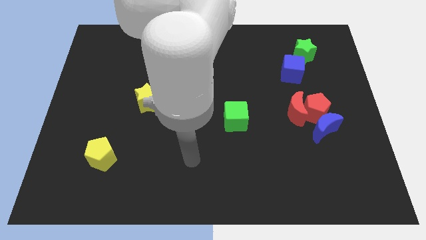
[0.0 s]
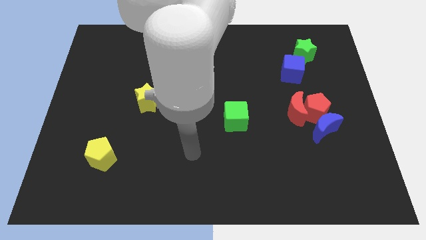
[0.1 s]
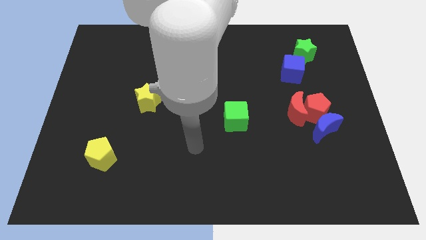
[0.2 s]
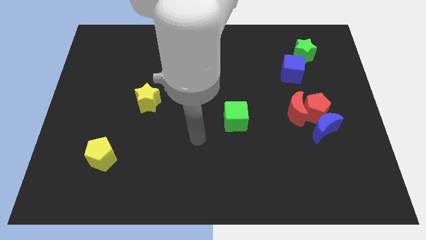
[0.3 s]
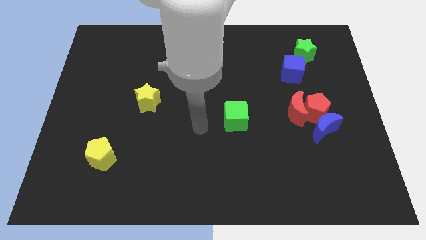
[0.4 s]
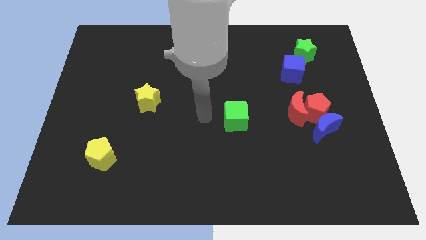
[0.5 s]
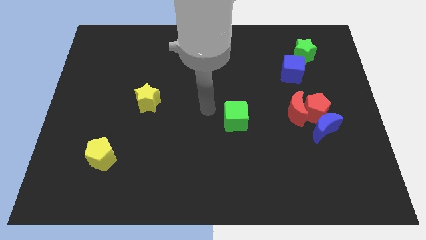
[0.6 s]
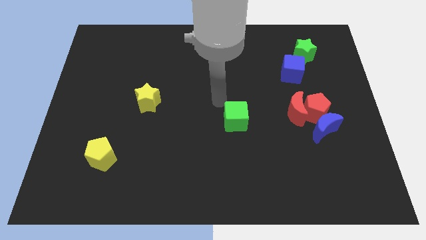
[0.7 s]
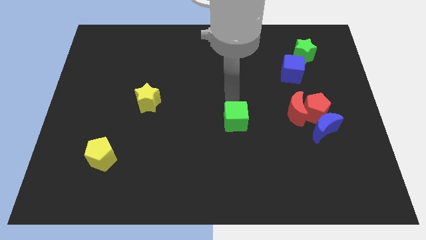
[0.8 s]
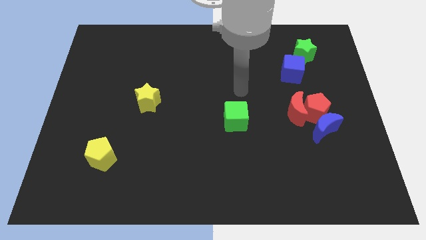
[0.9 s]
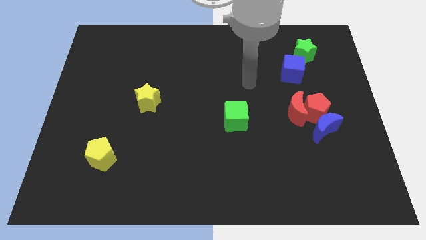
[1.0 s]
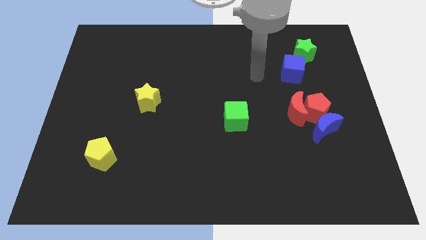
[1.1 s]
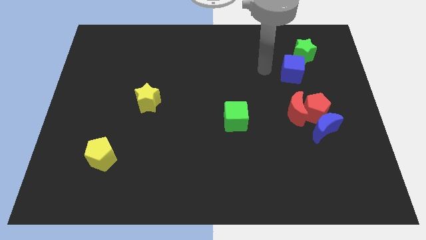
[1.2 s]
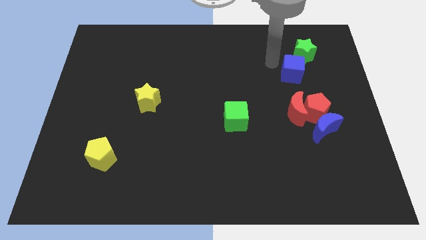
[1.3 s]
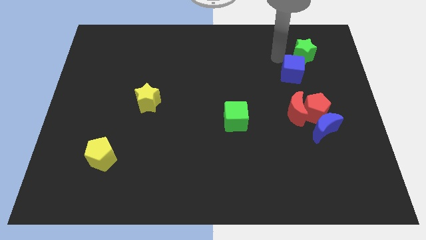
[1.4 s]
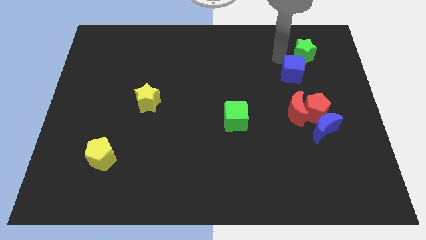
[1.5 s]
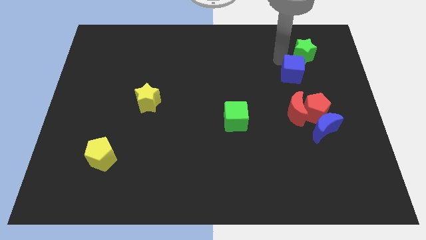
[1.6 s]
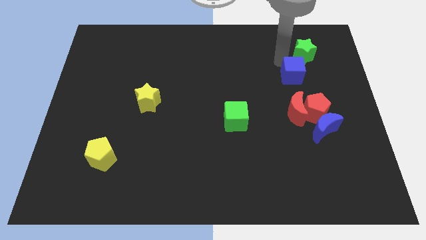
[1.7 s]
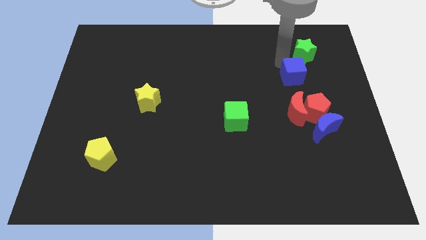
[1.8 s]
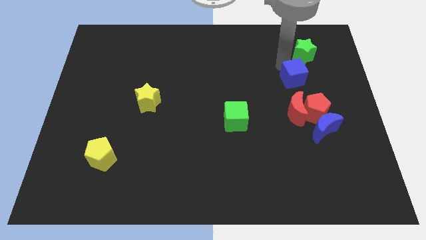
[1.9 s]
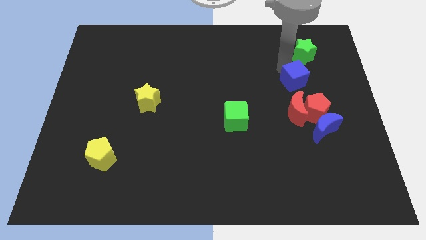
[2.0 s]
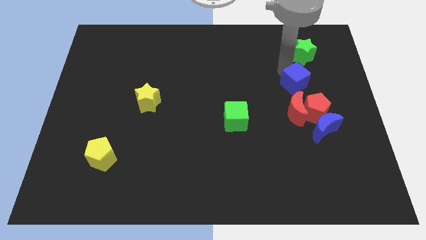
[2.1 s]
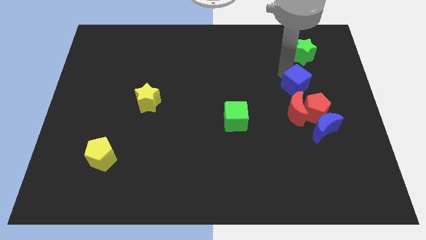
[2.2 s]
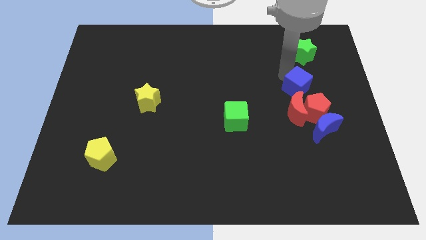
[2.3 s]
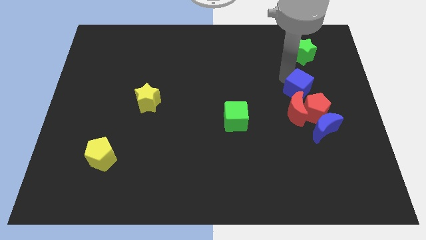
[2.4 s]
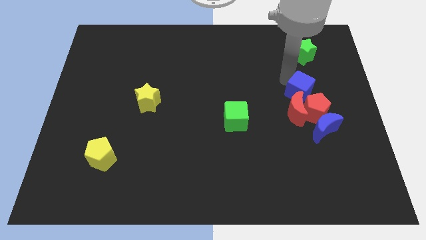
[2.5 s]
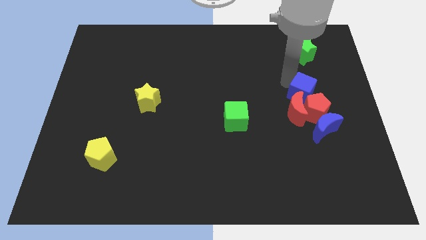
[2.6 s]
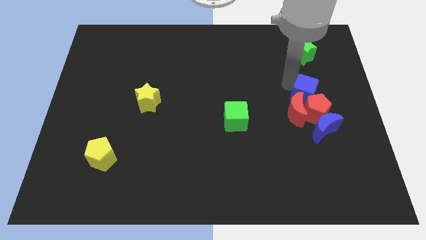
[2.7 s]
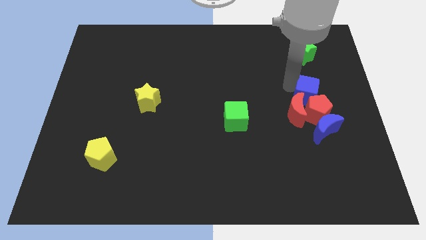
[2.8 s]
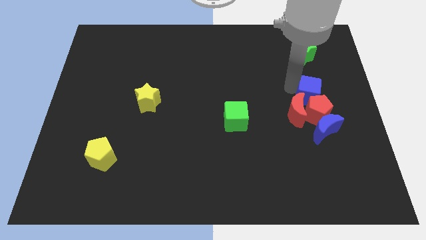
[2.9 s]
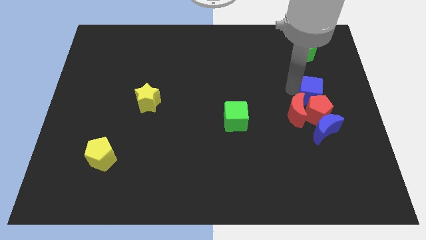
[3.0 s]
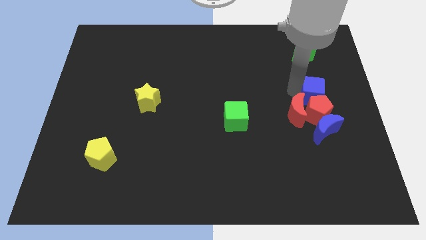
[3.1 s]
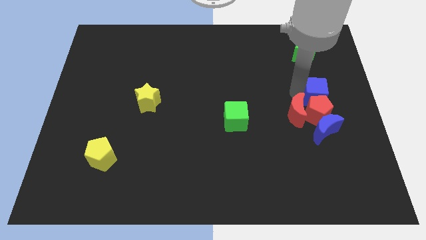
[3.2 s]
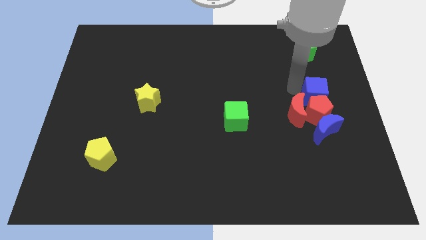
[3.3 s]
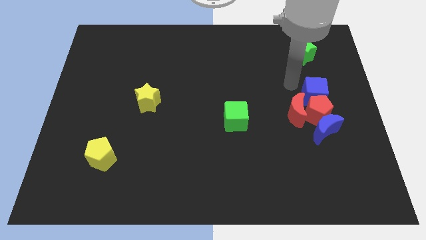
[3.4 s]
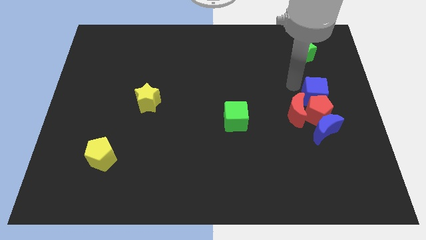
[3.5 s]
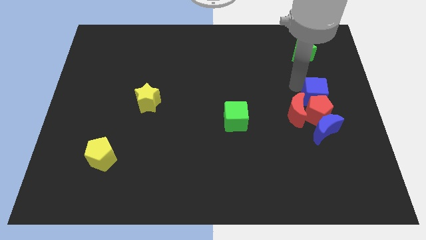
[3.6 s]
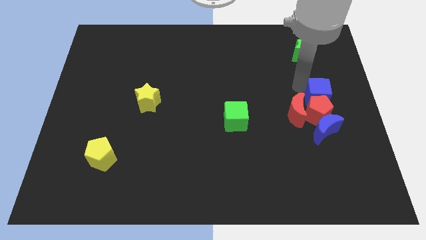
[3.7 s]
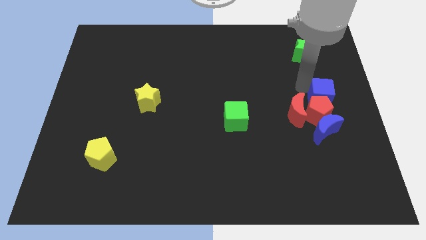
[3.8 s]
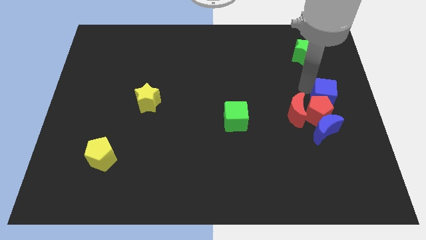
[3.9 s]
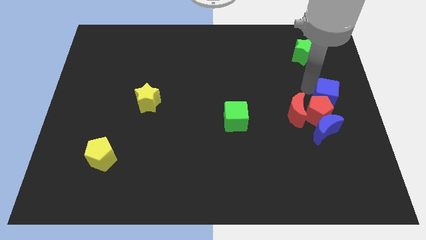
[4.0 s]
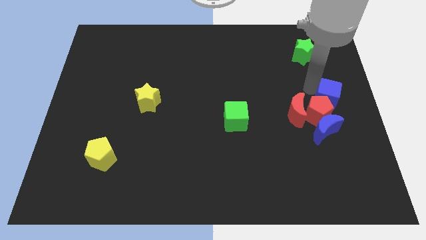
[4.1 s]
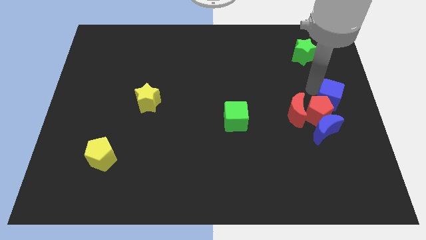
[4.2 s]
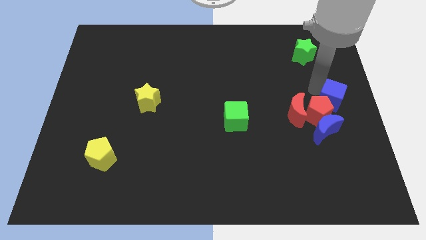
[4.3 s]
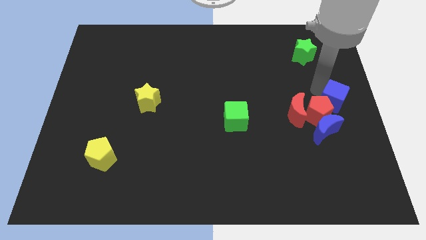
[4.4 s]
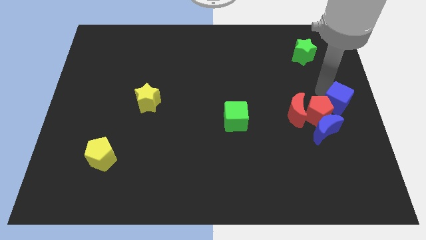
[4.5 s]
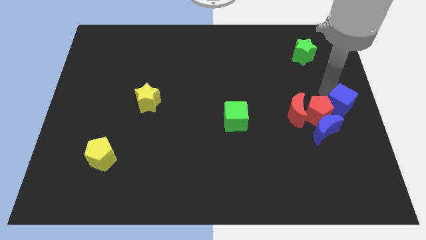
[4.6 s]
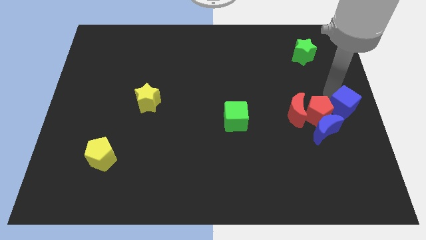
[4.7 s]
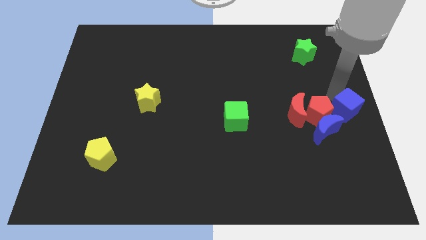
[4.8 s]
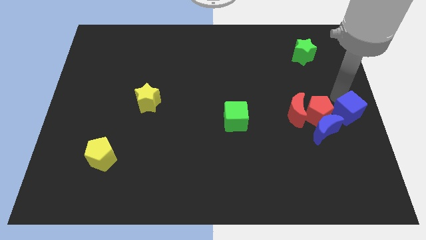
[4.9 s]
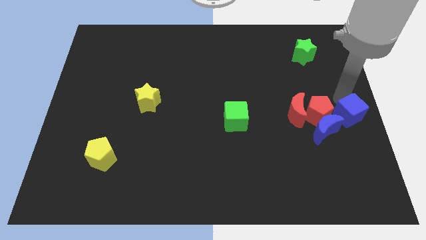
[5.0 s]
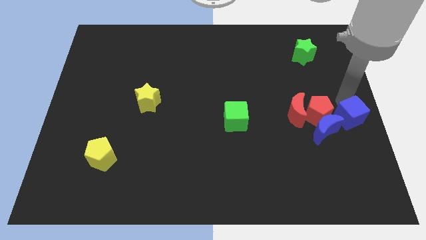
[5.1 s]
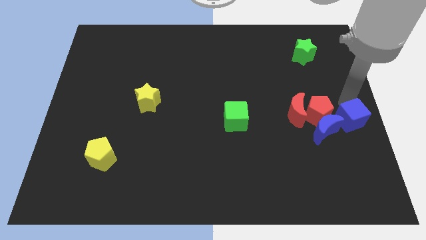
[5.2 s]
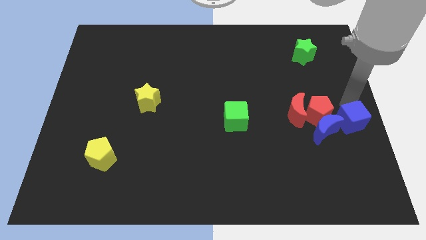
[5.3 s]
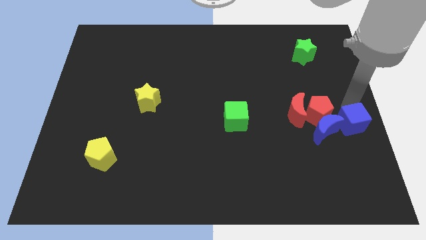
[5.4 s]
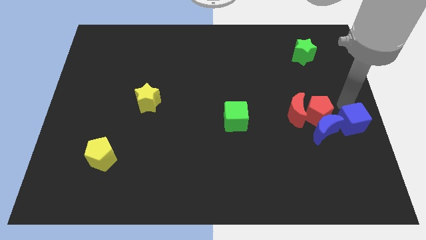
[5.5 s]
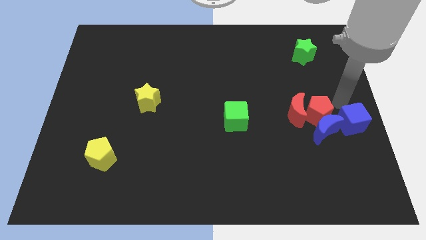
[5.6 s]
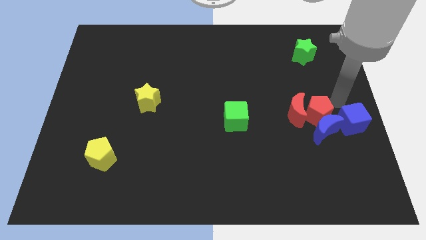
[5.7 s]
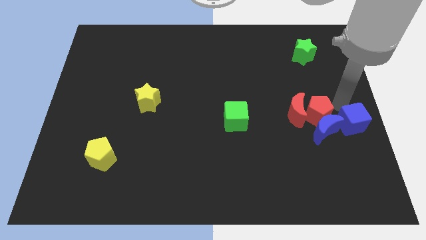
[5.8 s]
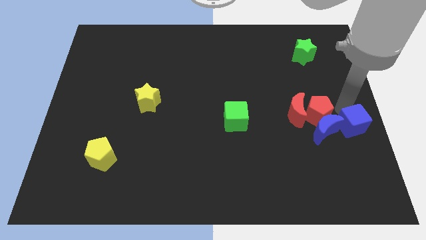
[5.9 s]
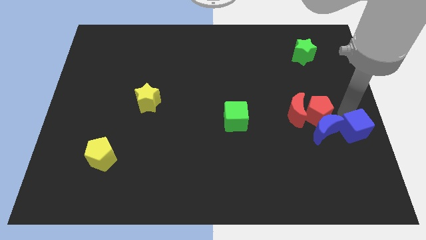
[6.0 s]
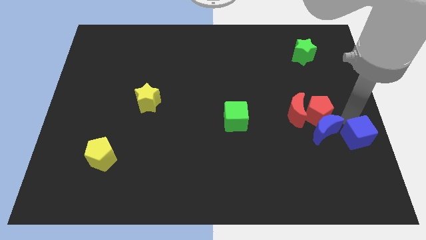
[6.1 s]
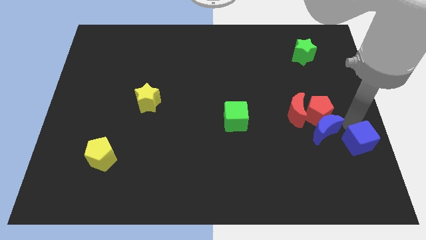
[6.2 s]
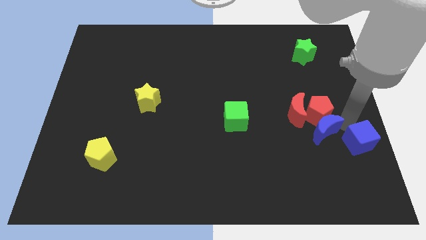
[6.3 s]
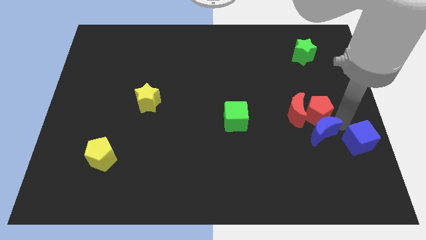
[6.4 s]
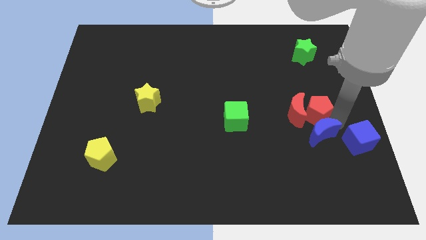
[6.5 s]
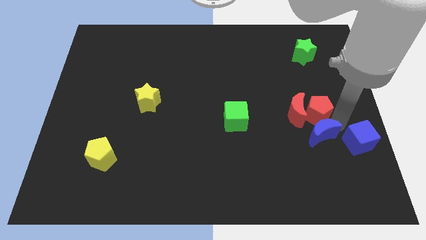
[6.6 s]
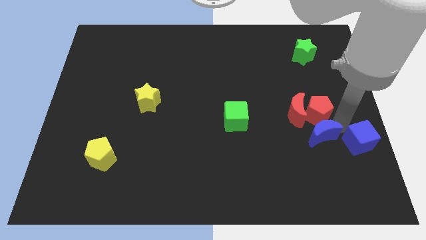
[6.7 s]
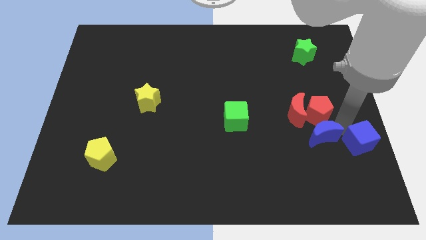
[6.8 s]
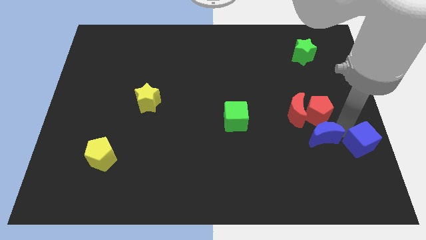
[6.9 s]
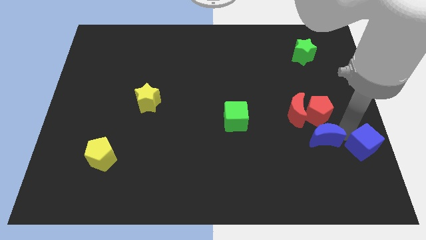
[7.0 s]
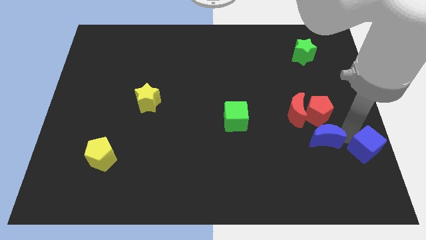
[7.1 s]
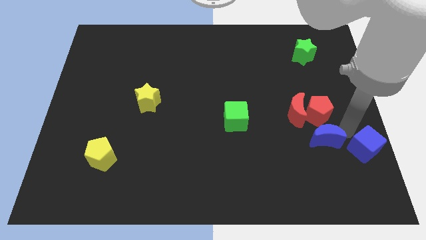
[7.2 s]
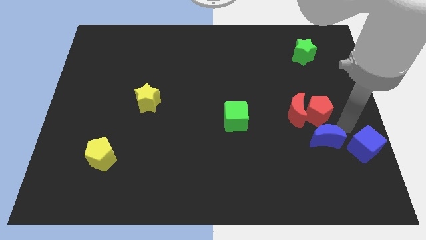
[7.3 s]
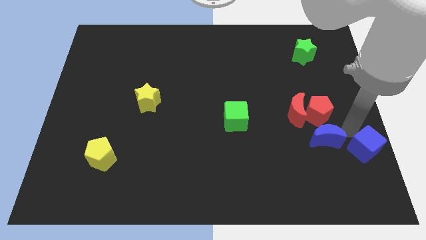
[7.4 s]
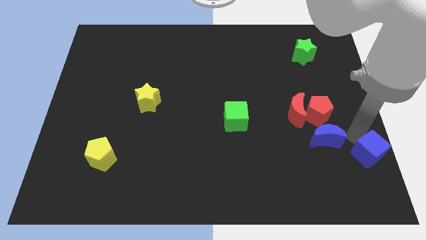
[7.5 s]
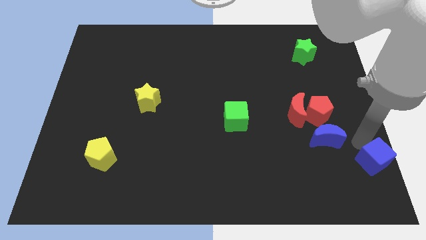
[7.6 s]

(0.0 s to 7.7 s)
put the blue cube to the bottom right of the board

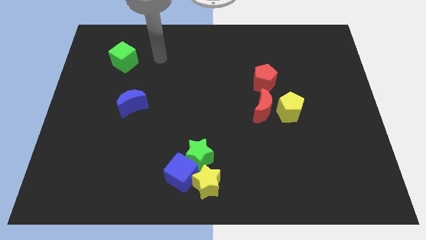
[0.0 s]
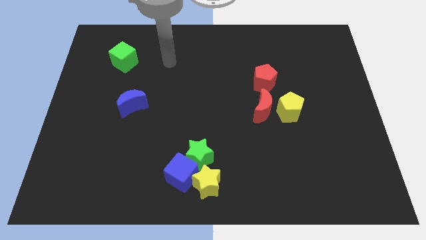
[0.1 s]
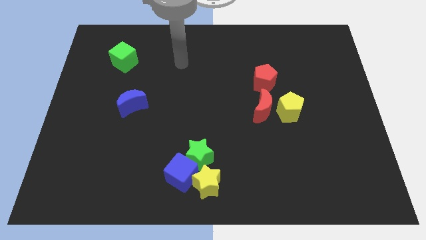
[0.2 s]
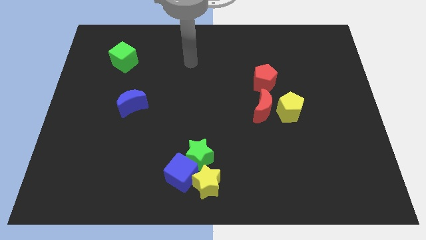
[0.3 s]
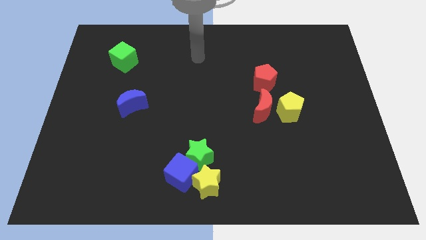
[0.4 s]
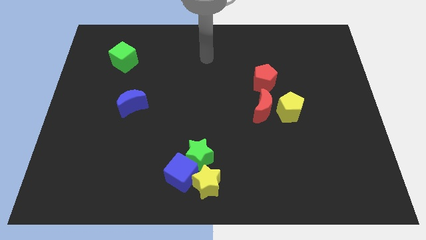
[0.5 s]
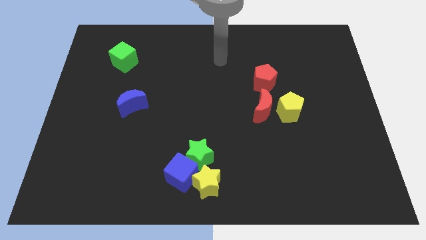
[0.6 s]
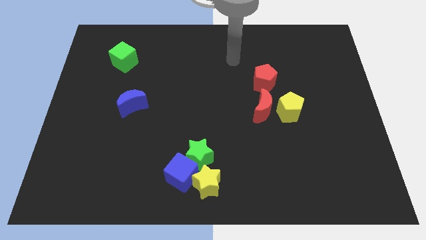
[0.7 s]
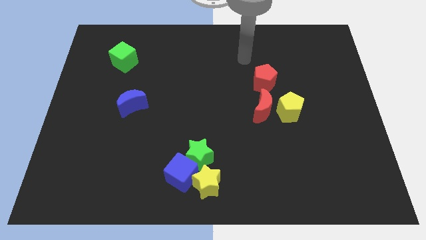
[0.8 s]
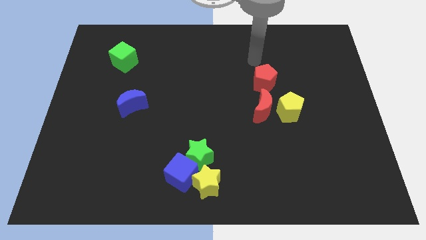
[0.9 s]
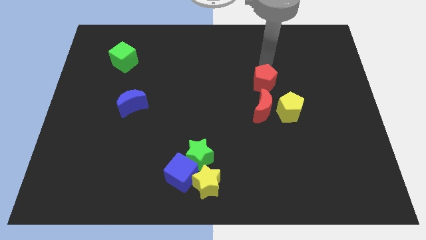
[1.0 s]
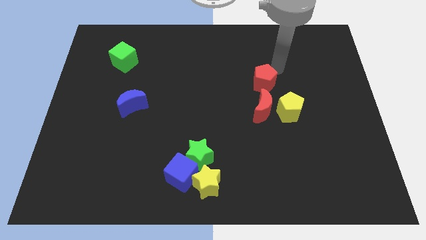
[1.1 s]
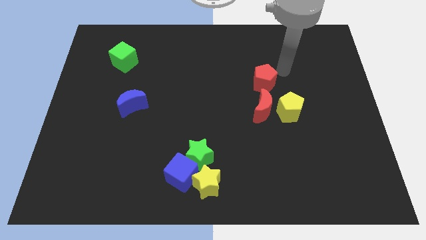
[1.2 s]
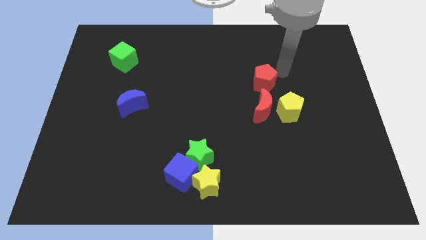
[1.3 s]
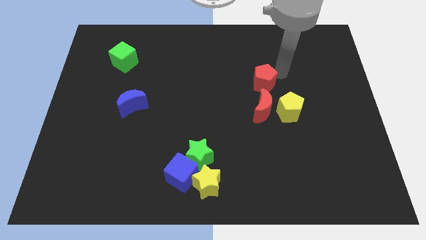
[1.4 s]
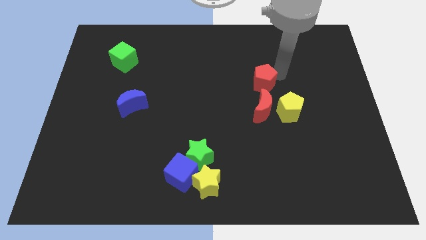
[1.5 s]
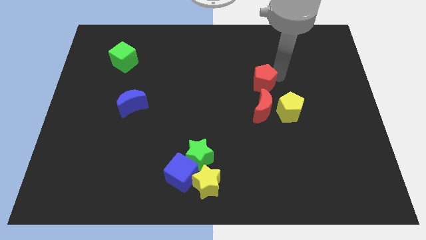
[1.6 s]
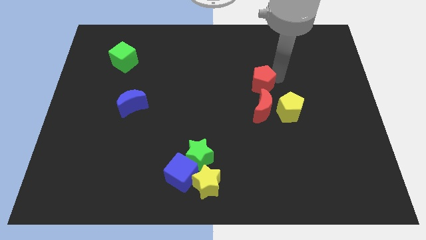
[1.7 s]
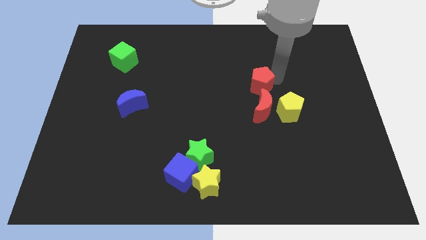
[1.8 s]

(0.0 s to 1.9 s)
push the red pentagon to the center of the board
